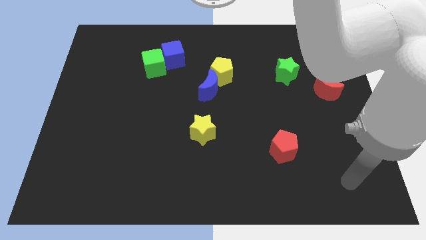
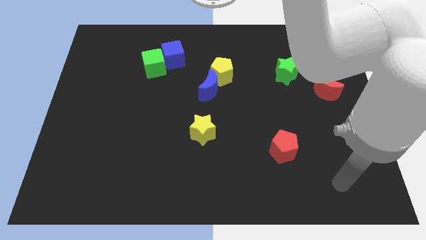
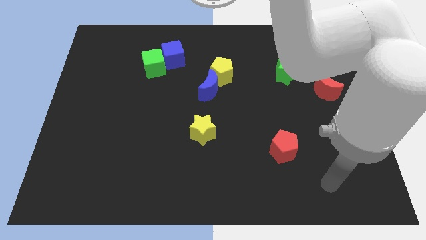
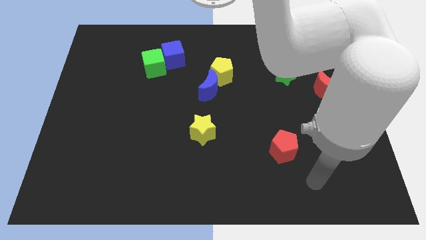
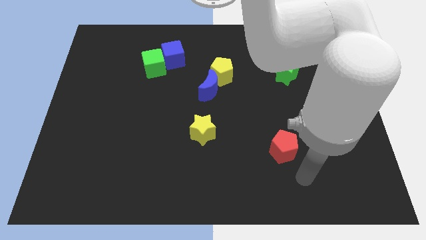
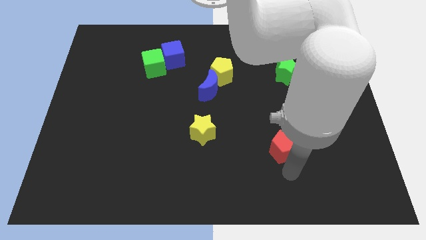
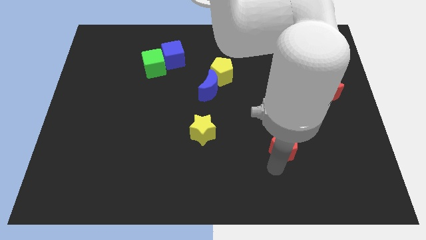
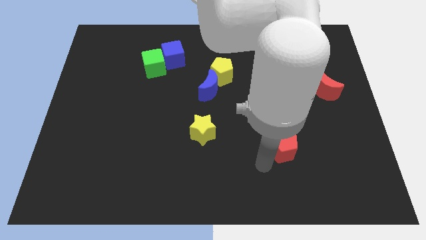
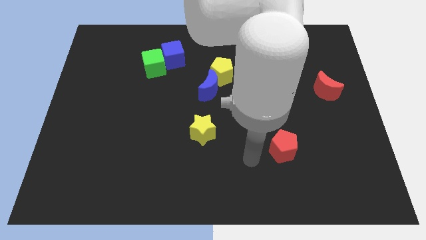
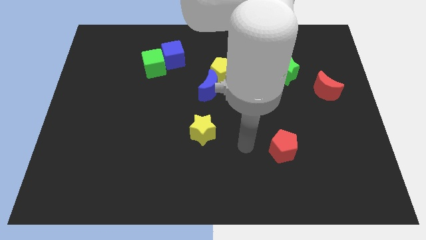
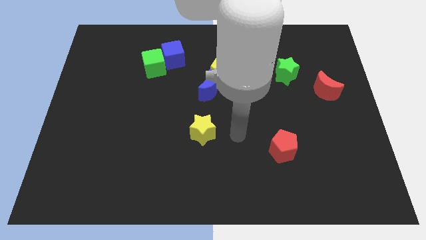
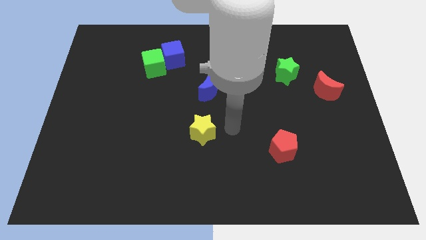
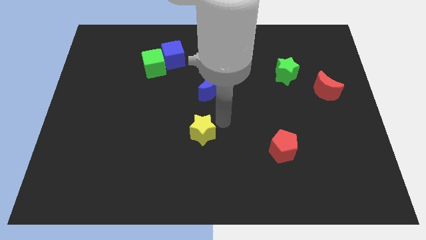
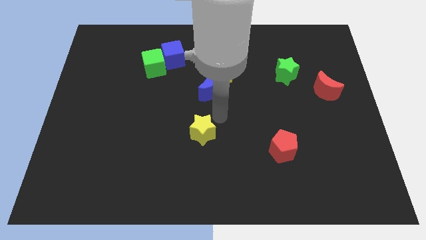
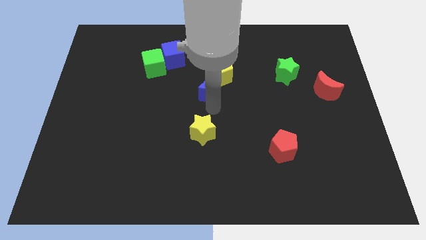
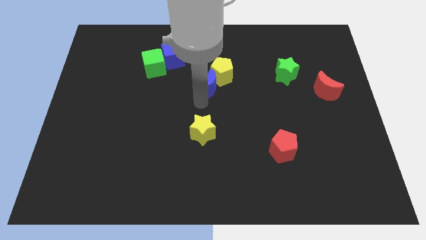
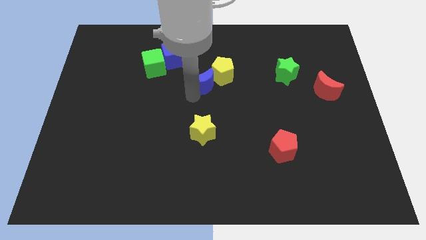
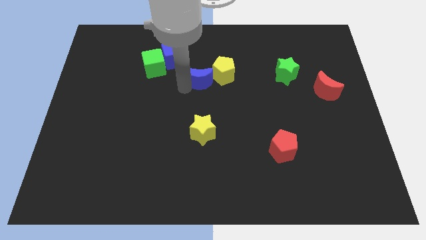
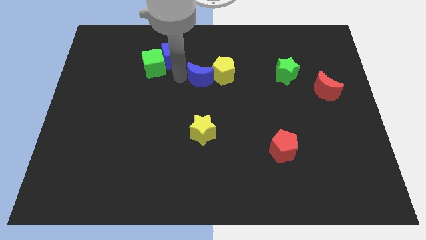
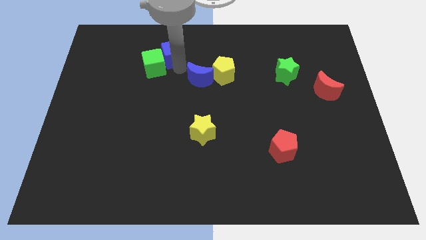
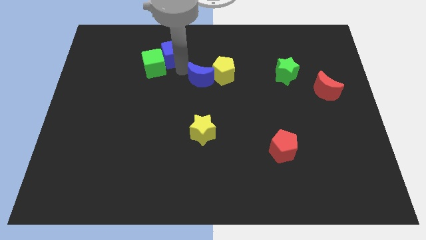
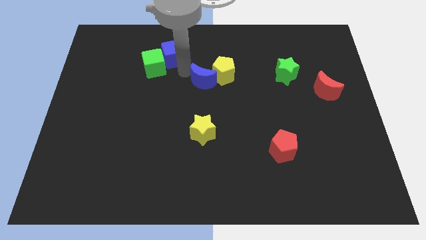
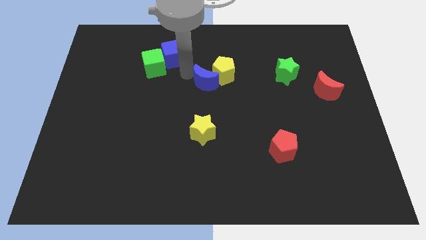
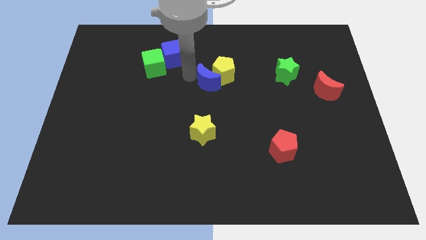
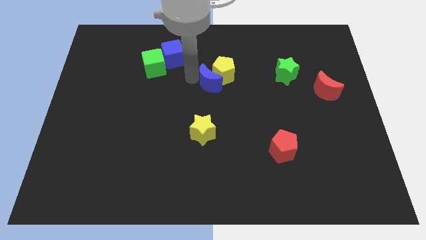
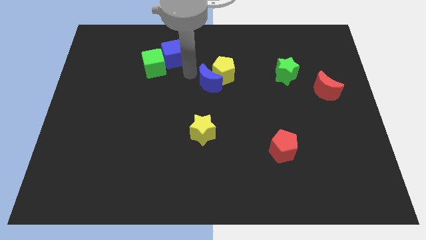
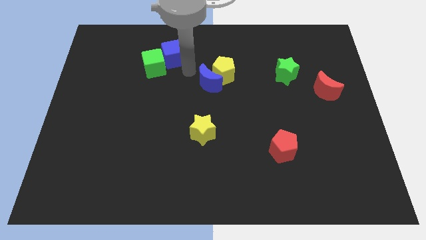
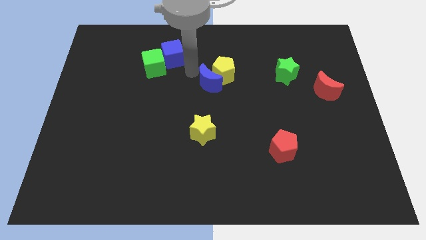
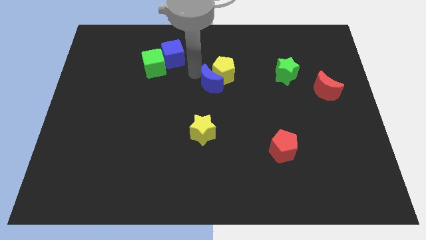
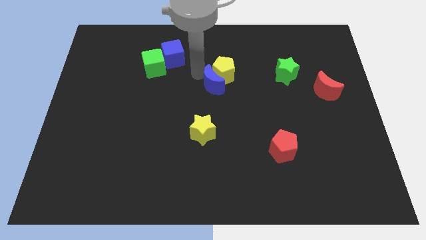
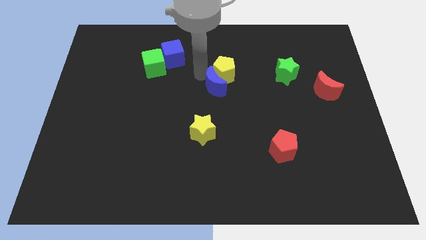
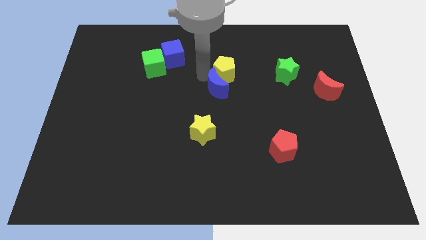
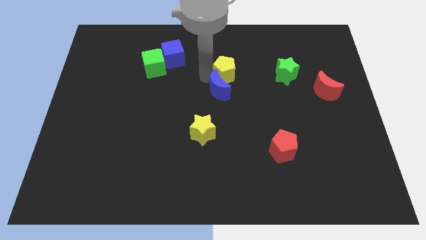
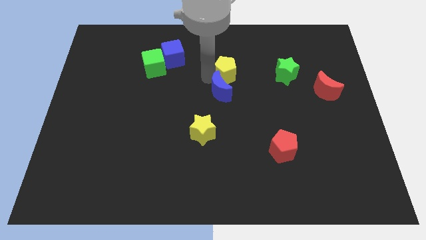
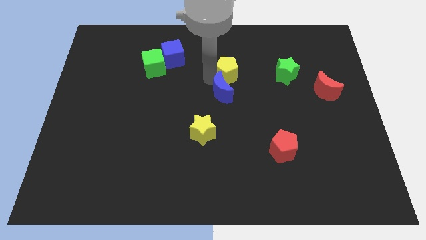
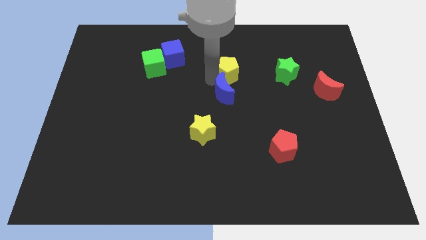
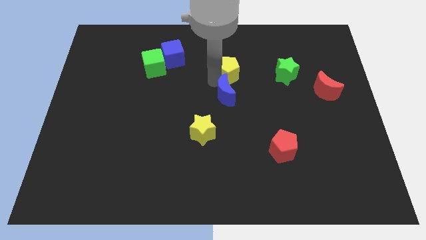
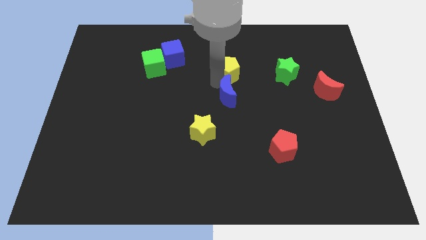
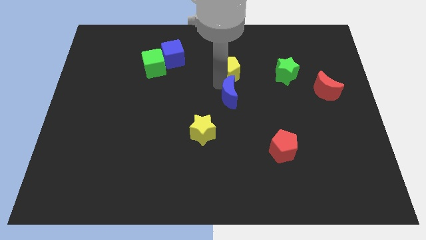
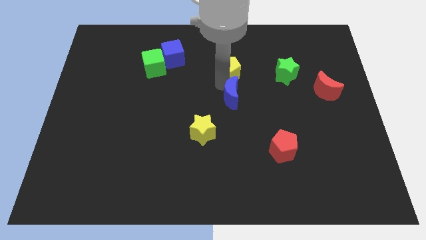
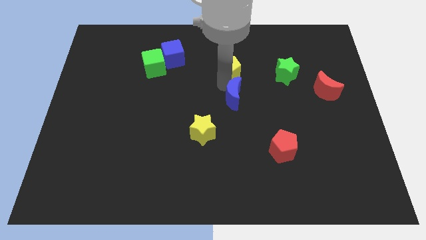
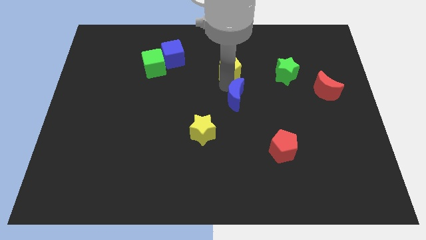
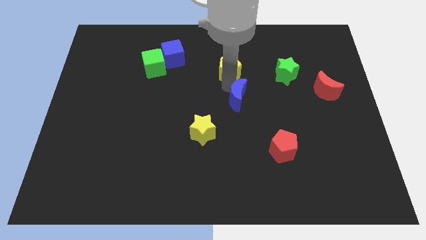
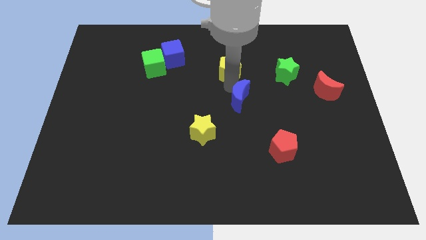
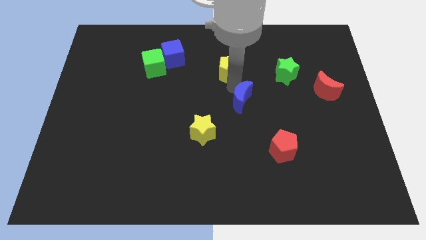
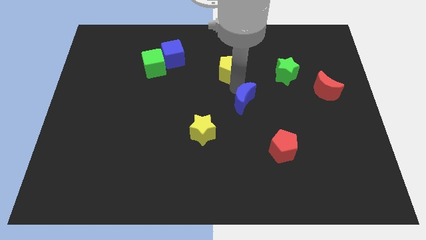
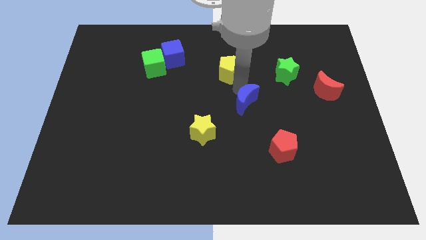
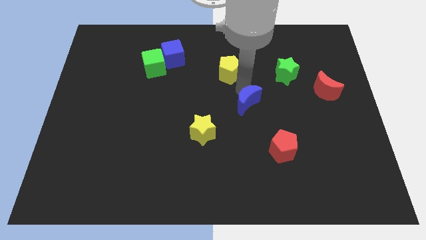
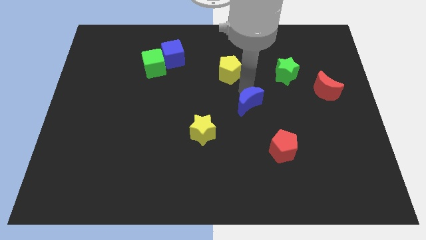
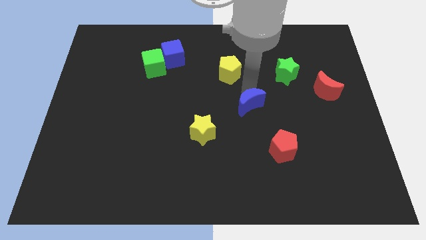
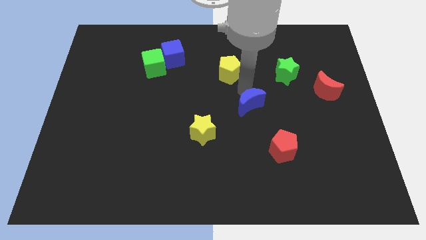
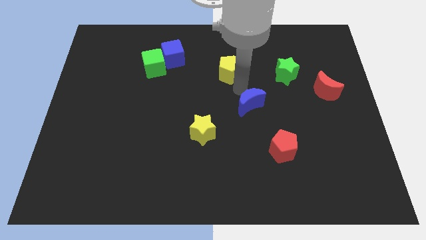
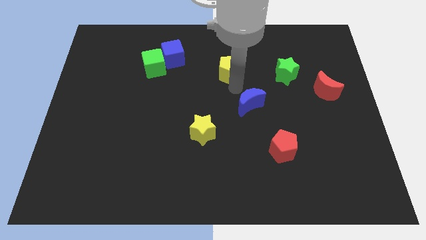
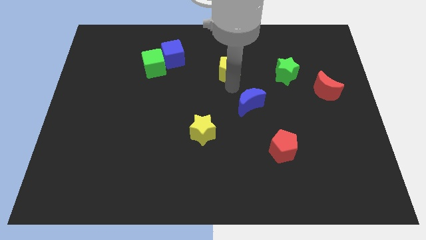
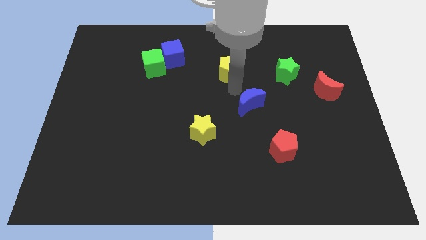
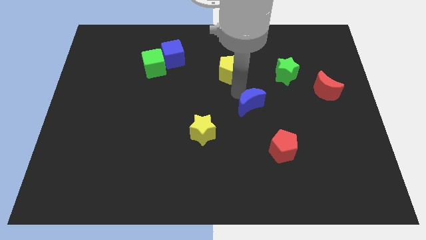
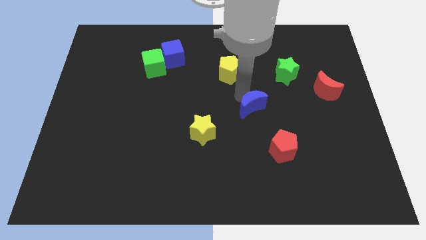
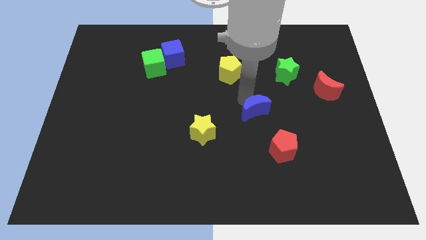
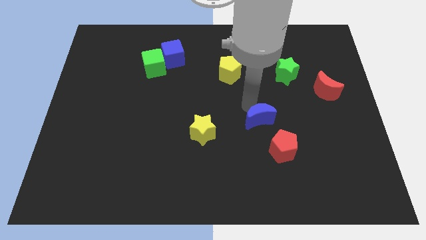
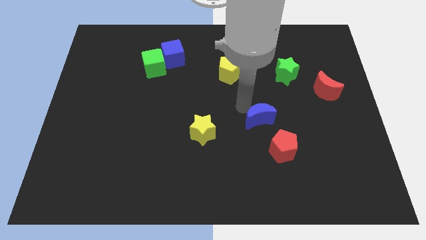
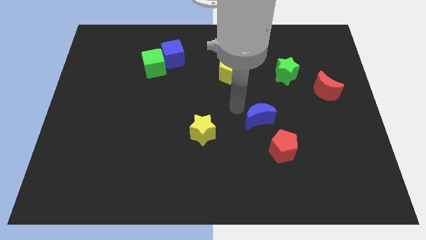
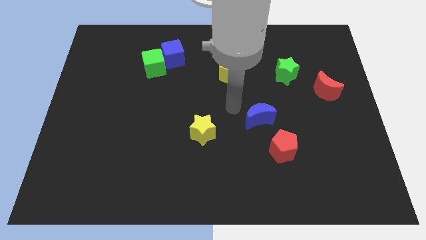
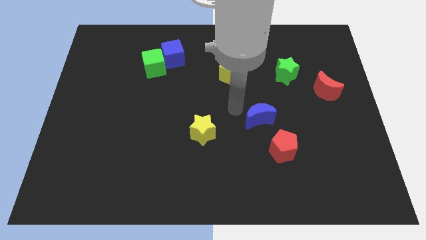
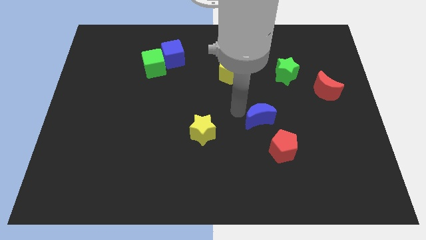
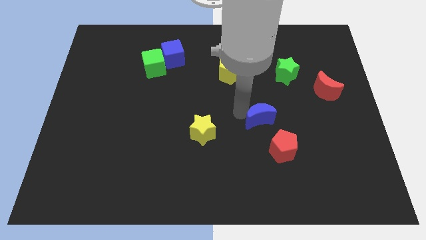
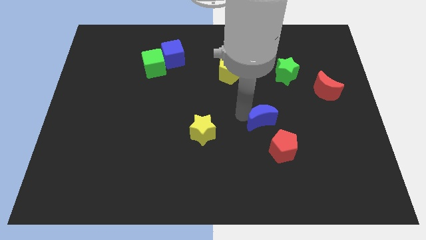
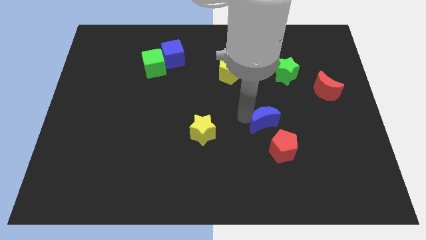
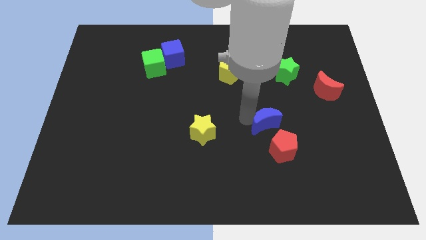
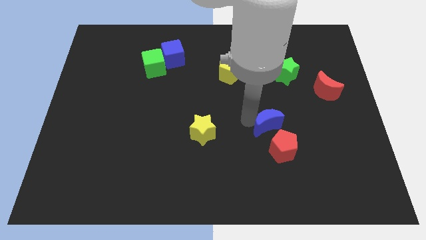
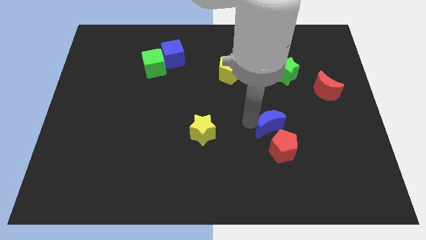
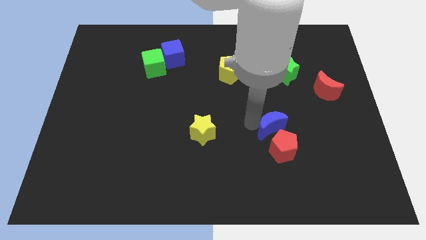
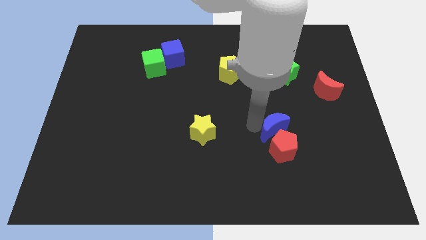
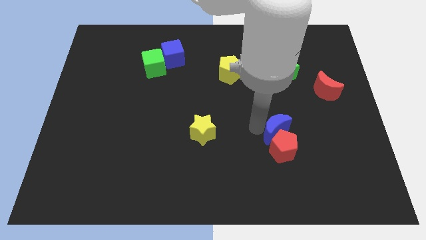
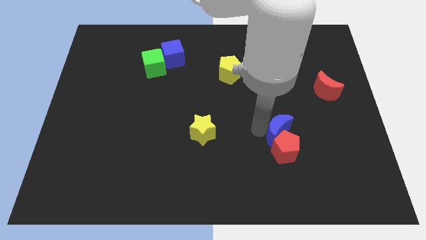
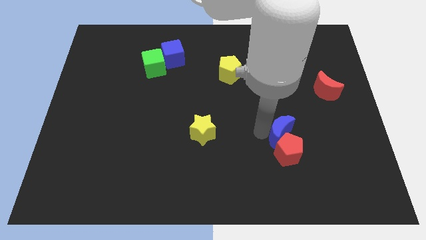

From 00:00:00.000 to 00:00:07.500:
push the blue moon downwards and right

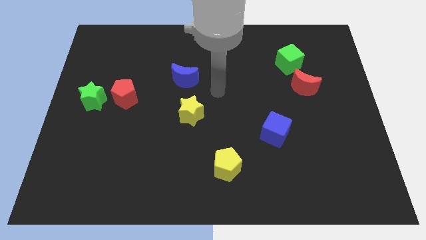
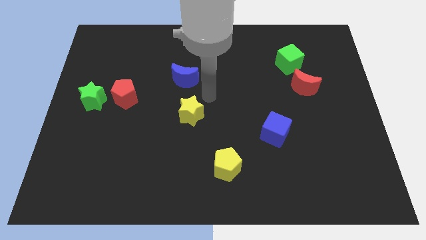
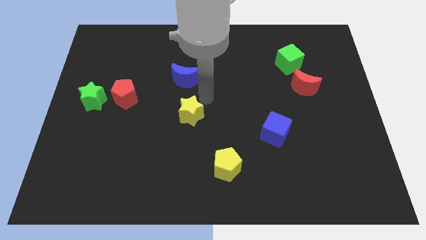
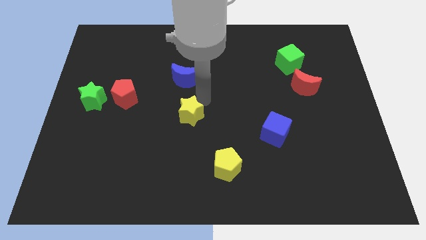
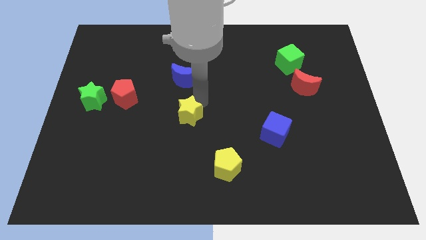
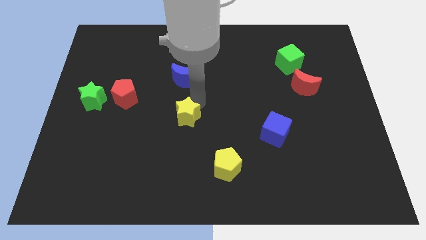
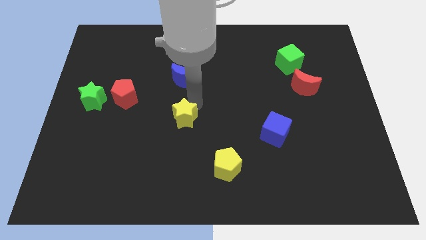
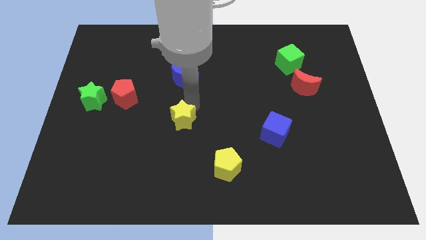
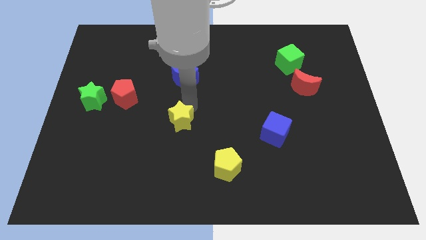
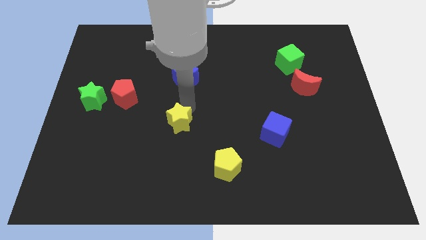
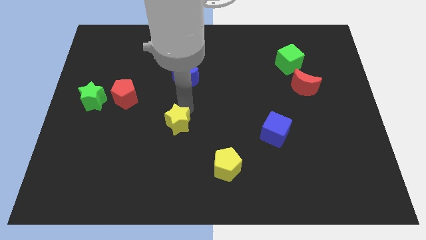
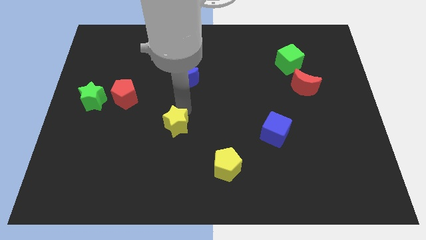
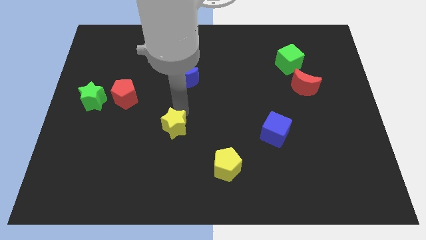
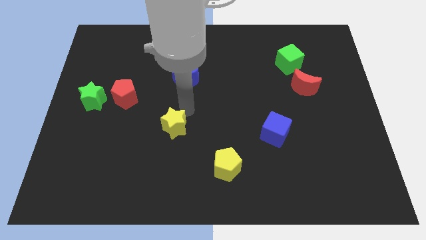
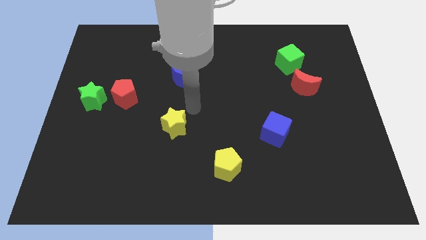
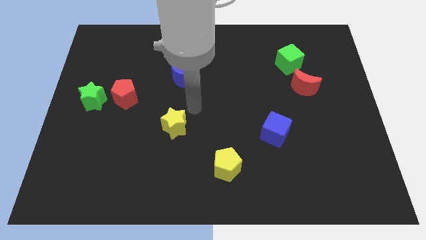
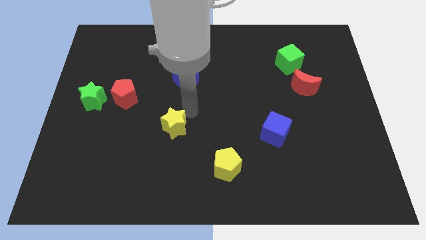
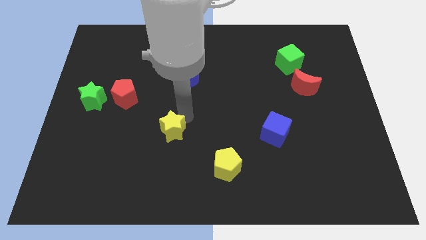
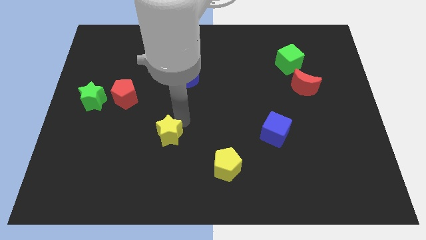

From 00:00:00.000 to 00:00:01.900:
slightly move the yellow star downwards and left diagonally
